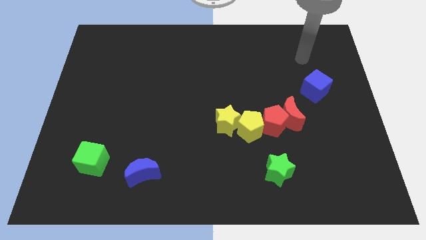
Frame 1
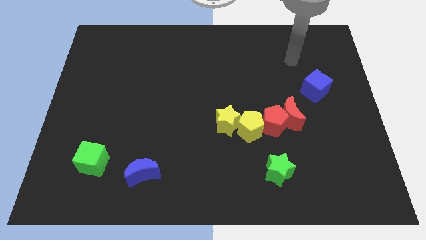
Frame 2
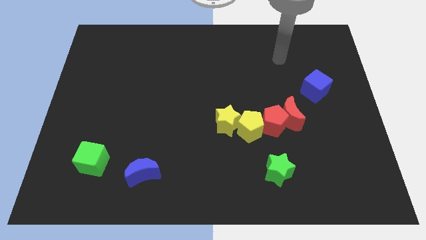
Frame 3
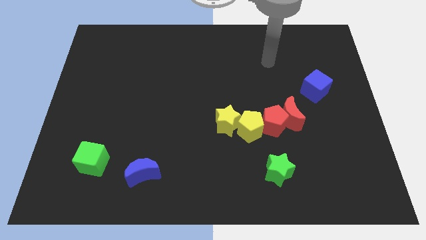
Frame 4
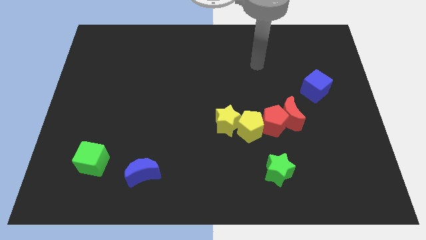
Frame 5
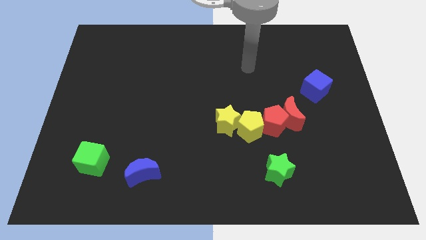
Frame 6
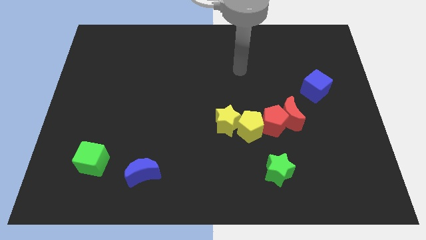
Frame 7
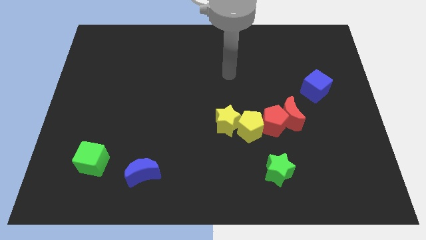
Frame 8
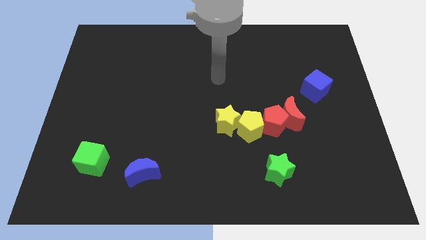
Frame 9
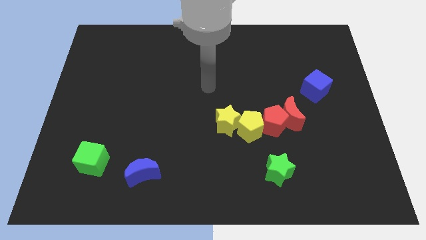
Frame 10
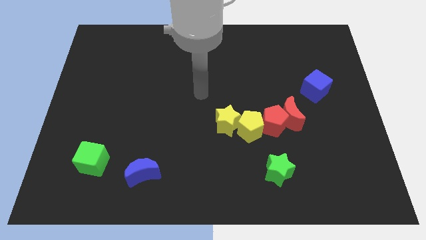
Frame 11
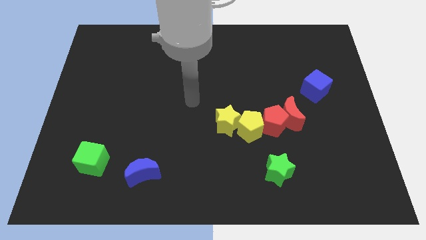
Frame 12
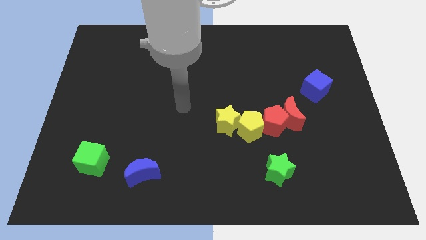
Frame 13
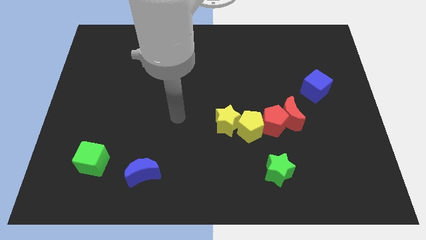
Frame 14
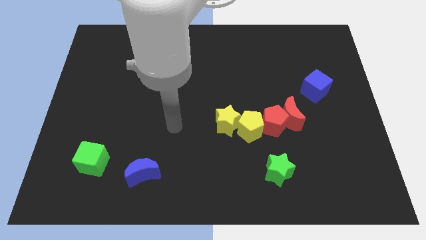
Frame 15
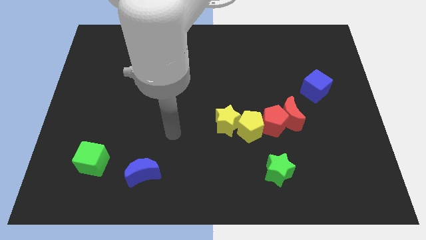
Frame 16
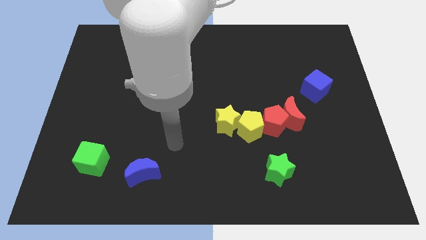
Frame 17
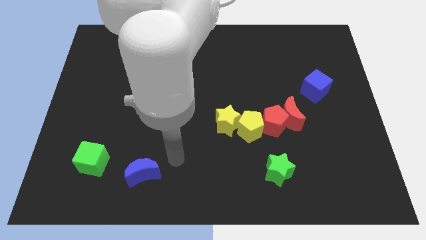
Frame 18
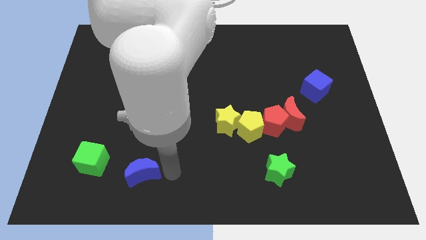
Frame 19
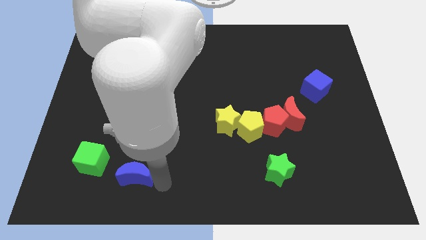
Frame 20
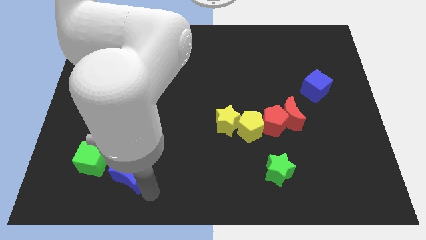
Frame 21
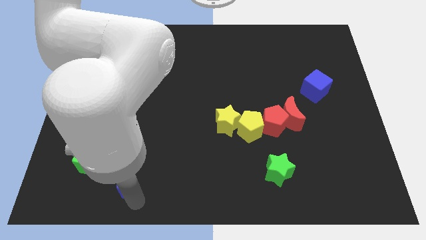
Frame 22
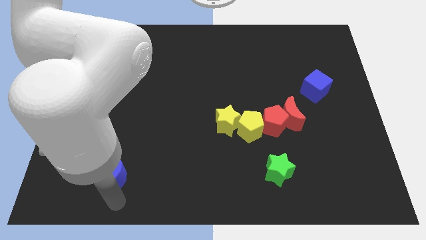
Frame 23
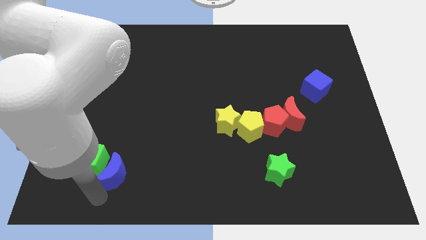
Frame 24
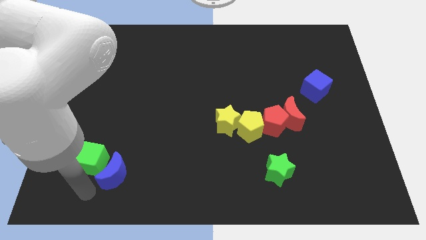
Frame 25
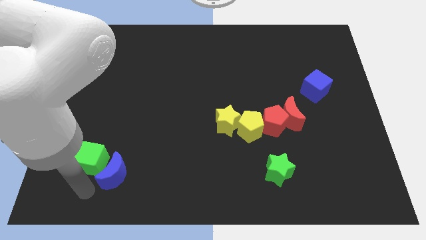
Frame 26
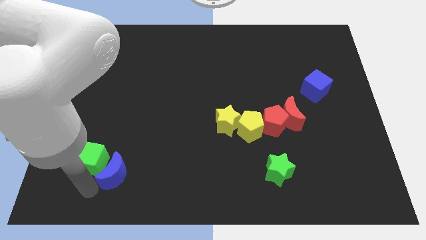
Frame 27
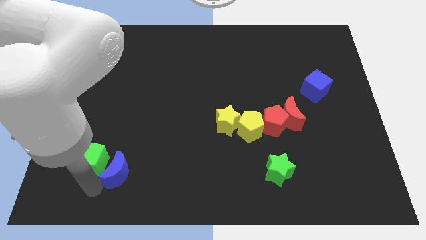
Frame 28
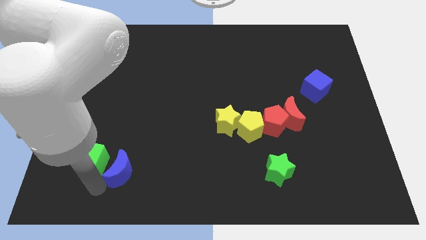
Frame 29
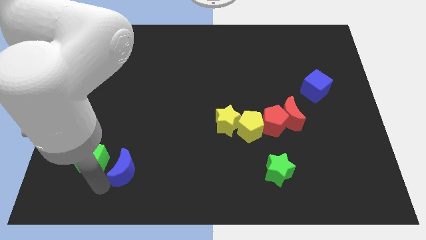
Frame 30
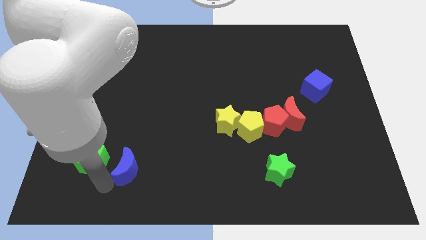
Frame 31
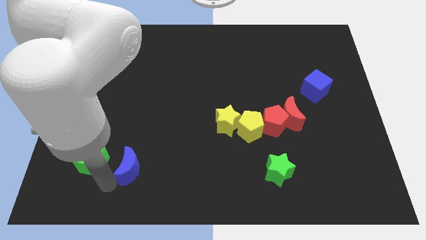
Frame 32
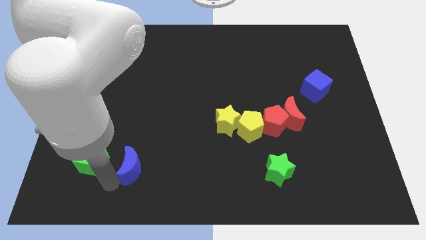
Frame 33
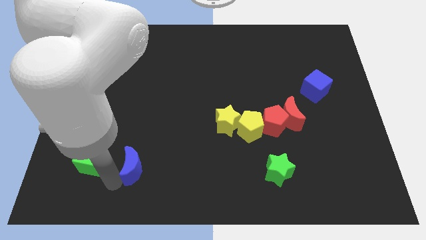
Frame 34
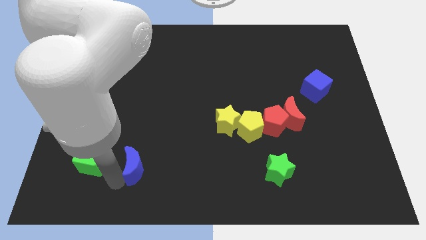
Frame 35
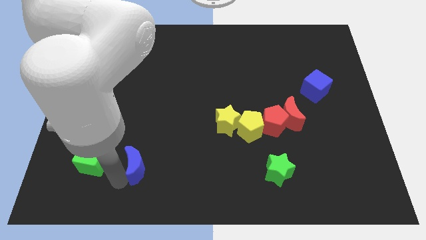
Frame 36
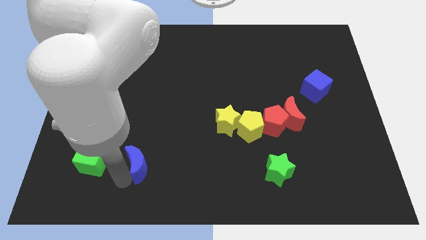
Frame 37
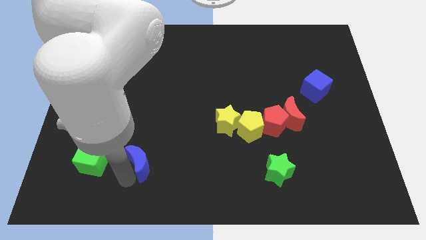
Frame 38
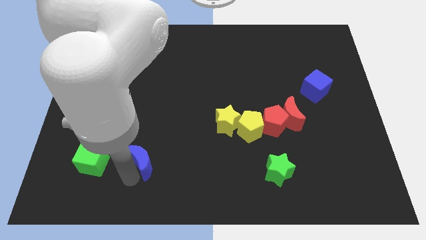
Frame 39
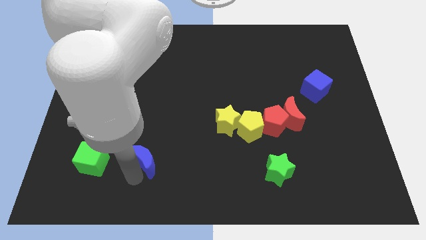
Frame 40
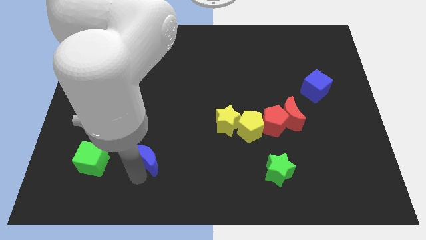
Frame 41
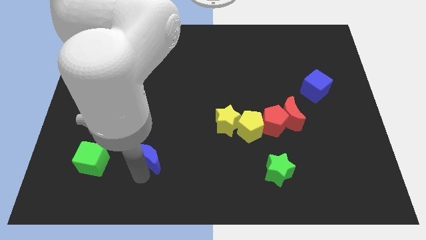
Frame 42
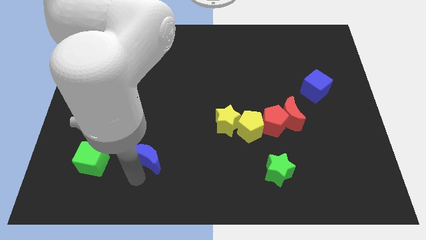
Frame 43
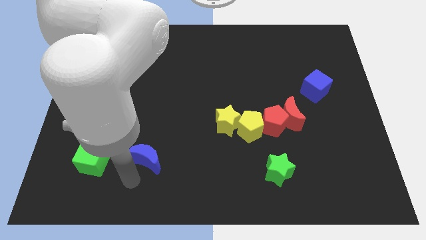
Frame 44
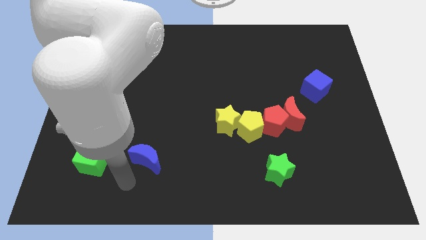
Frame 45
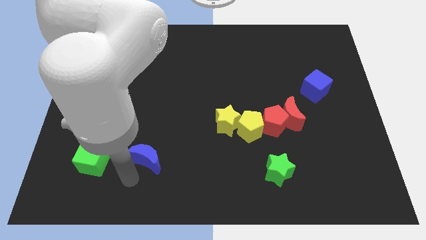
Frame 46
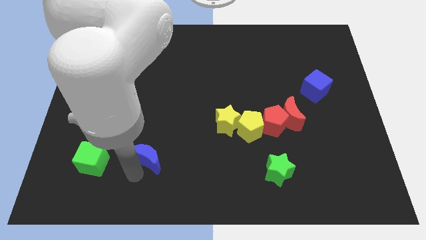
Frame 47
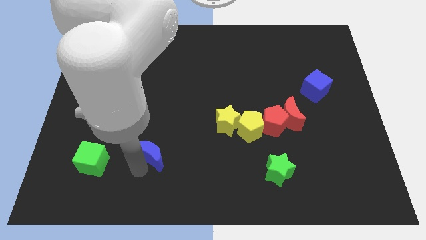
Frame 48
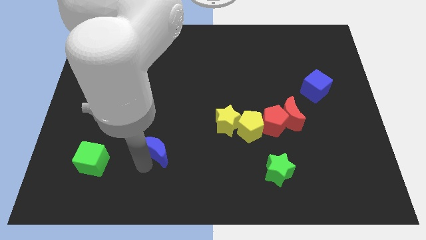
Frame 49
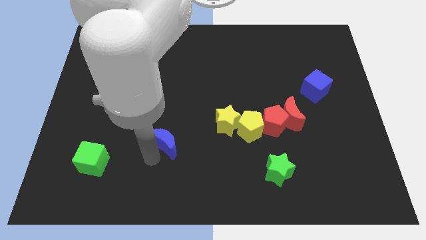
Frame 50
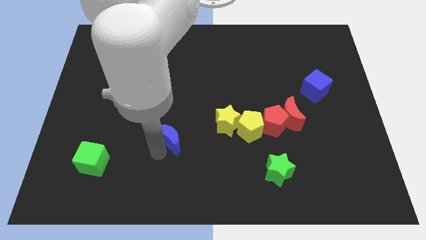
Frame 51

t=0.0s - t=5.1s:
slide the blue moon to the left side of the yellow star
